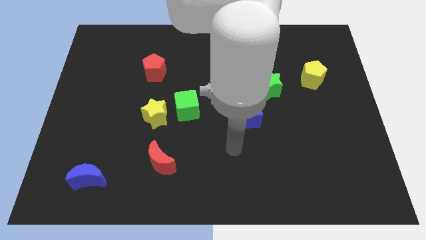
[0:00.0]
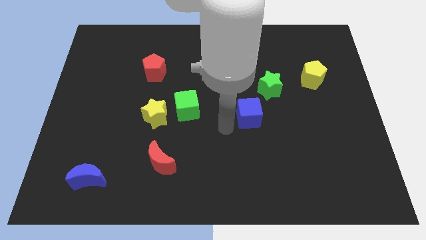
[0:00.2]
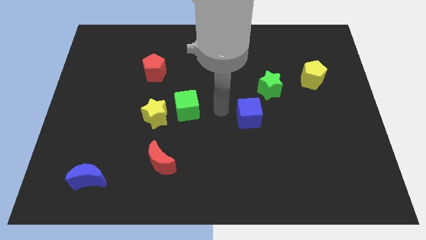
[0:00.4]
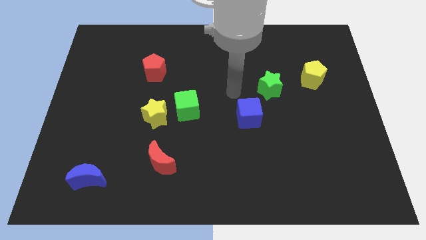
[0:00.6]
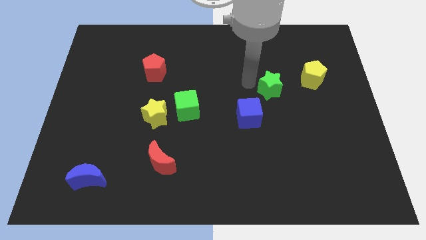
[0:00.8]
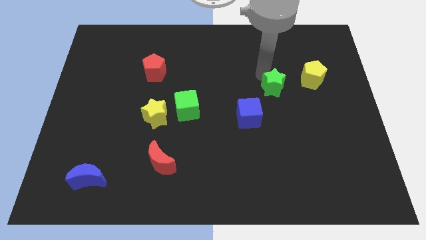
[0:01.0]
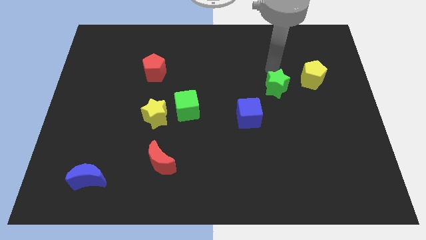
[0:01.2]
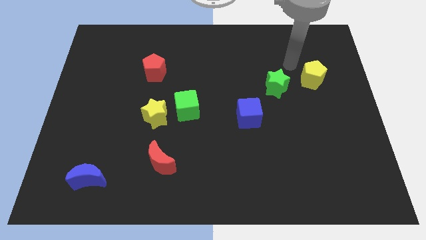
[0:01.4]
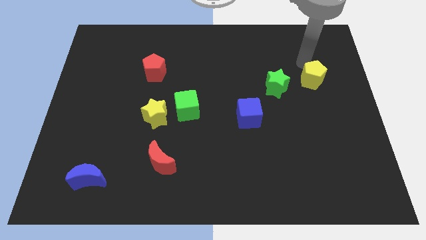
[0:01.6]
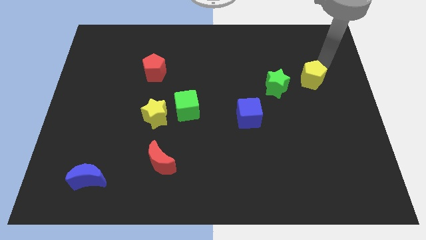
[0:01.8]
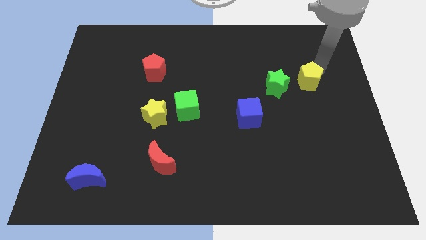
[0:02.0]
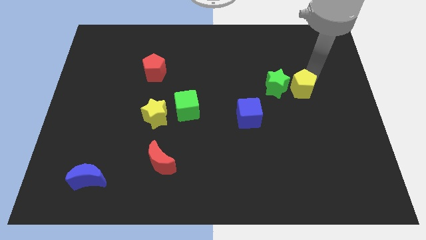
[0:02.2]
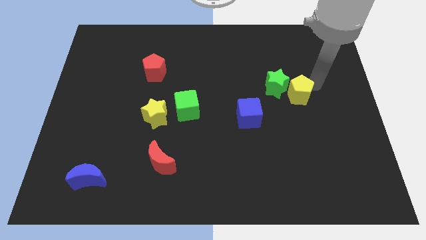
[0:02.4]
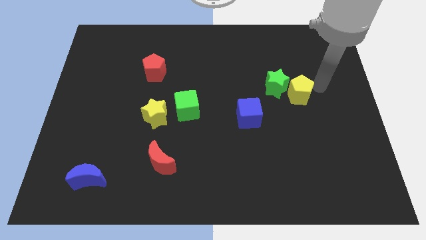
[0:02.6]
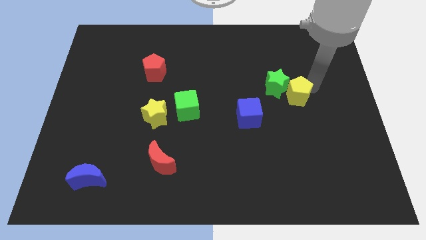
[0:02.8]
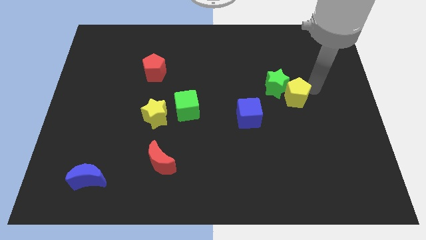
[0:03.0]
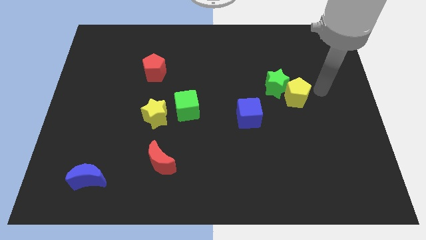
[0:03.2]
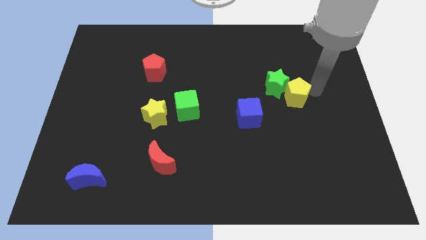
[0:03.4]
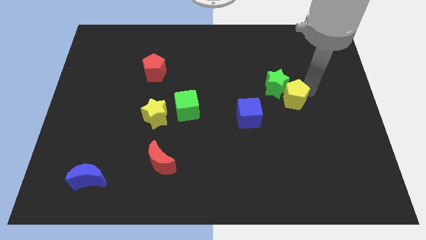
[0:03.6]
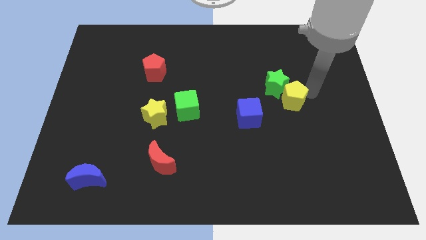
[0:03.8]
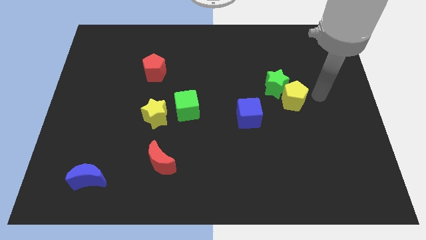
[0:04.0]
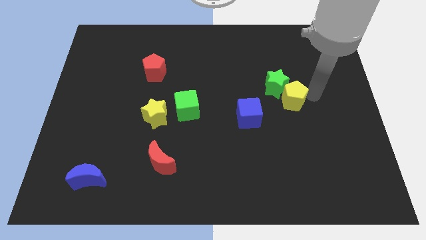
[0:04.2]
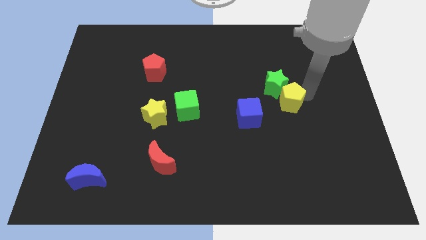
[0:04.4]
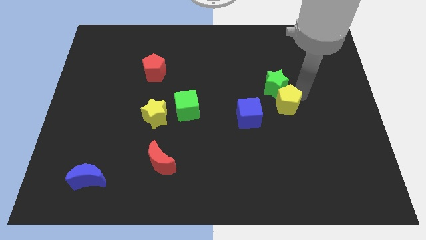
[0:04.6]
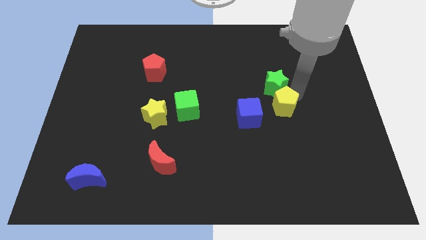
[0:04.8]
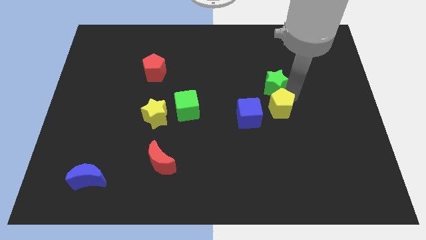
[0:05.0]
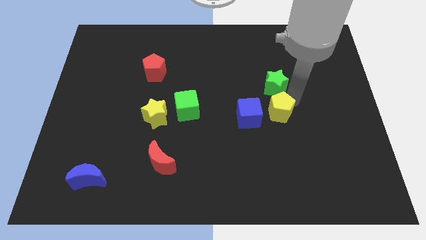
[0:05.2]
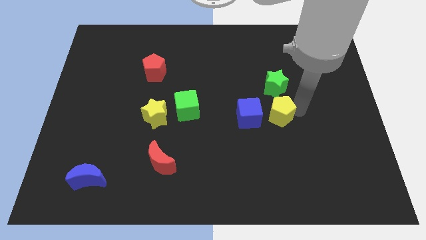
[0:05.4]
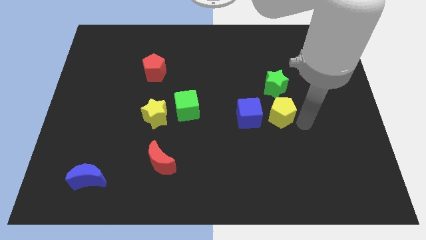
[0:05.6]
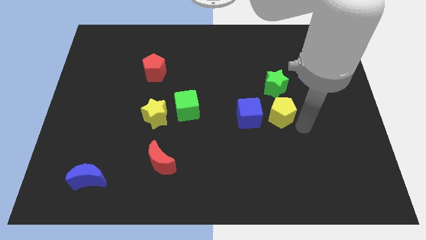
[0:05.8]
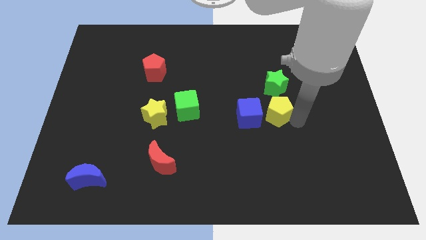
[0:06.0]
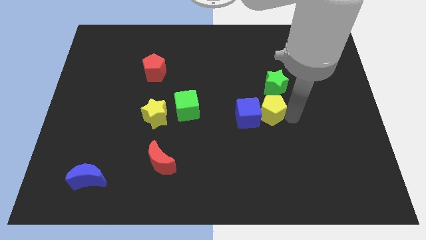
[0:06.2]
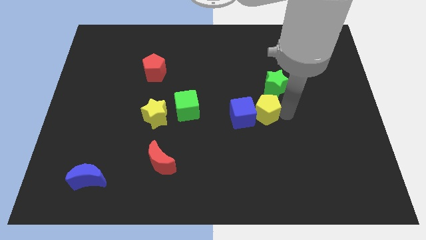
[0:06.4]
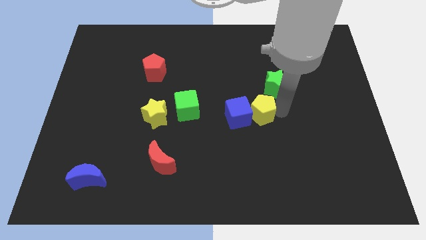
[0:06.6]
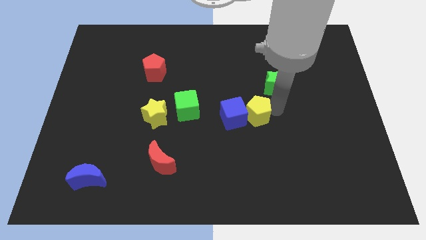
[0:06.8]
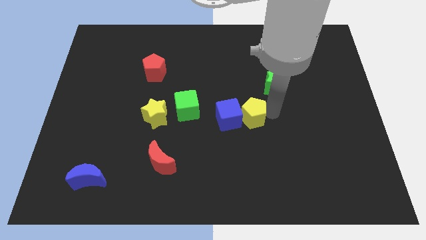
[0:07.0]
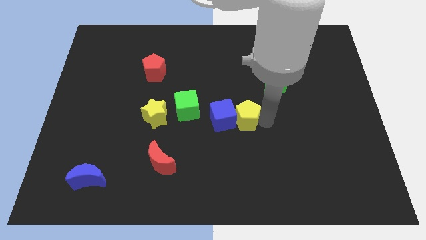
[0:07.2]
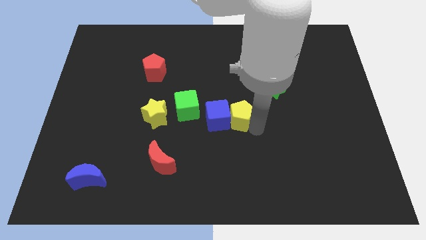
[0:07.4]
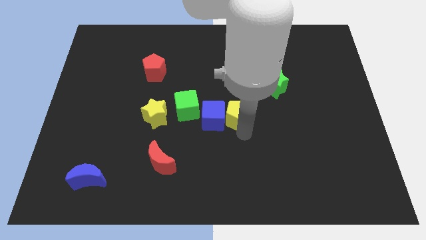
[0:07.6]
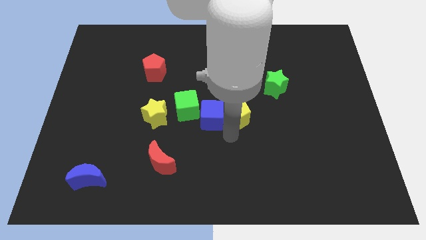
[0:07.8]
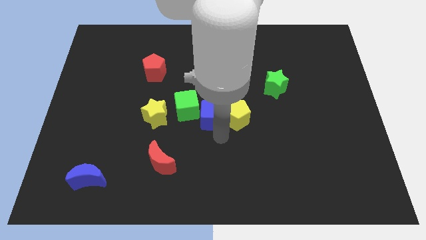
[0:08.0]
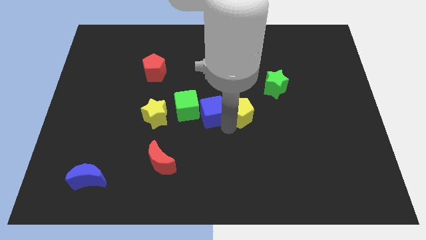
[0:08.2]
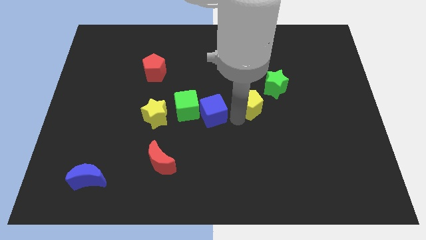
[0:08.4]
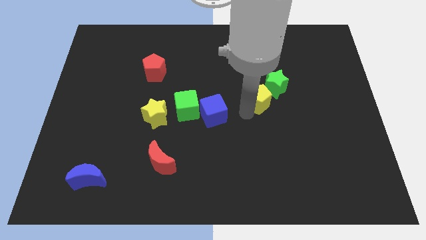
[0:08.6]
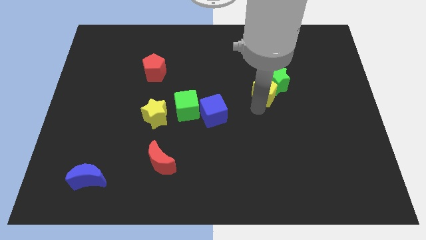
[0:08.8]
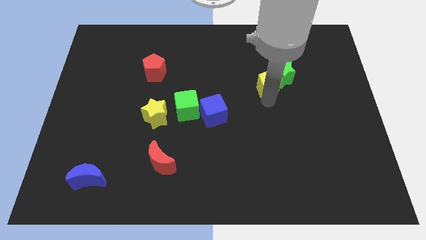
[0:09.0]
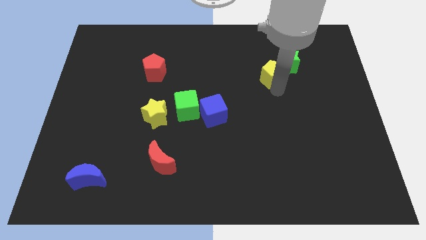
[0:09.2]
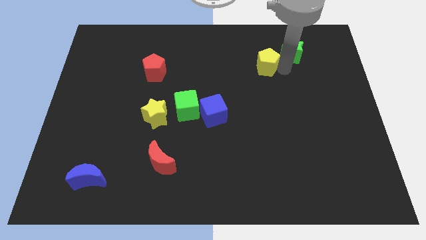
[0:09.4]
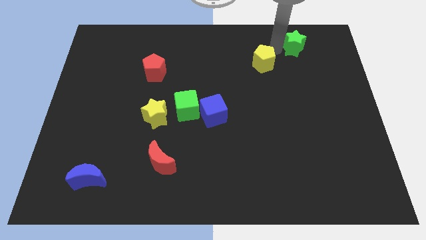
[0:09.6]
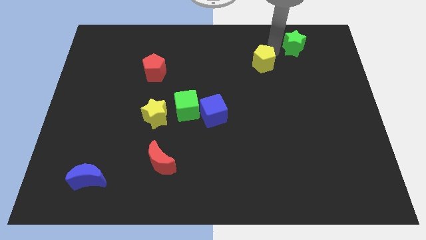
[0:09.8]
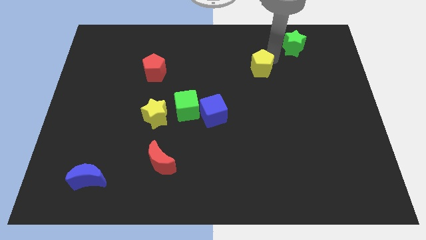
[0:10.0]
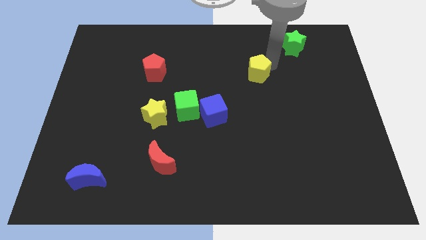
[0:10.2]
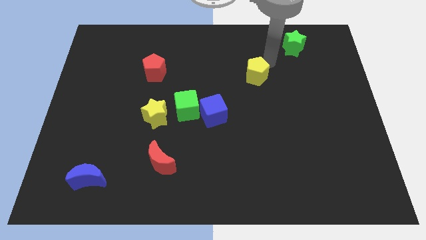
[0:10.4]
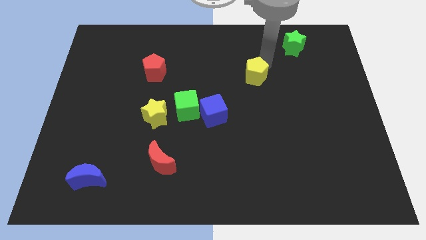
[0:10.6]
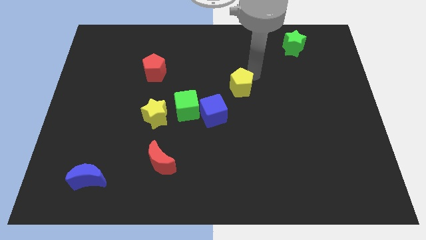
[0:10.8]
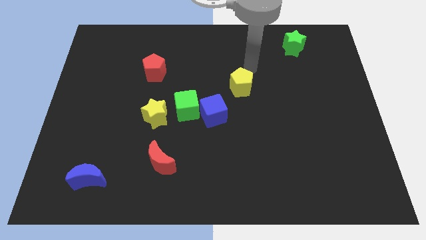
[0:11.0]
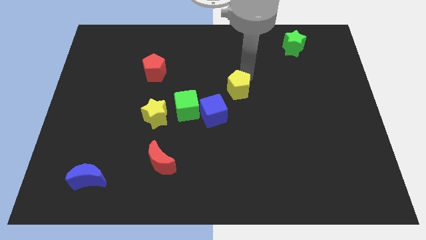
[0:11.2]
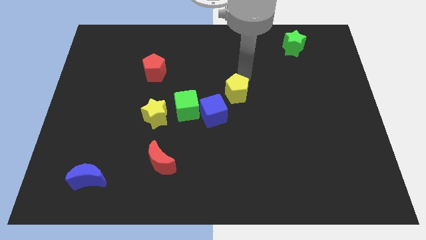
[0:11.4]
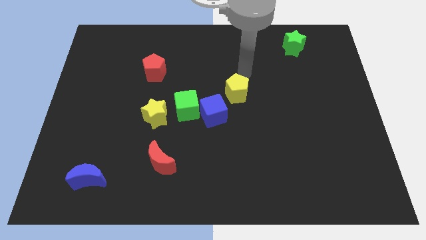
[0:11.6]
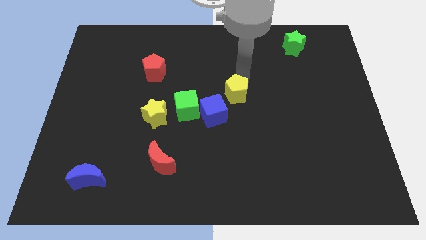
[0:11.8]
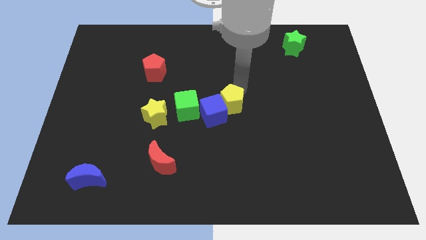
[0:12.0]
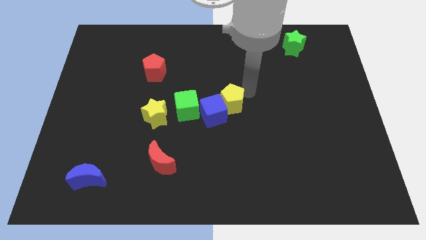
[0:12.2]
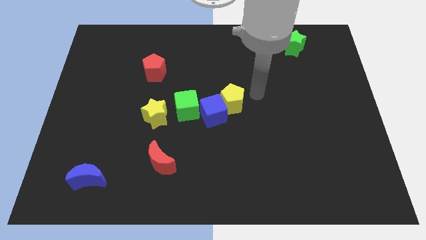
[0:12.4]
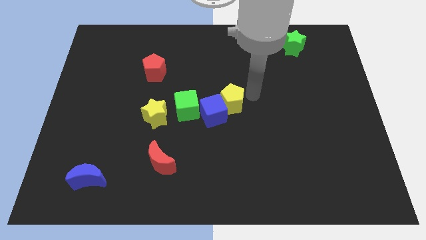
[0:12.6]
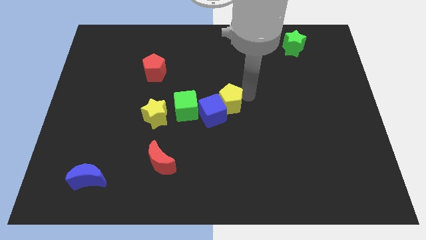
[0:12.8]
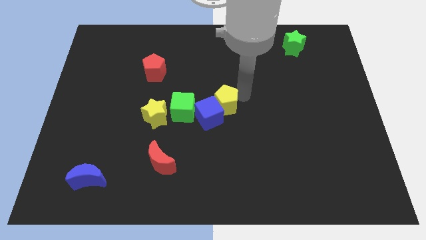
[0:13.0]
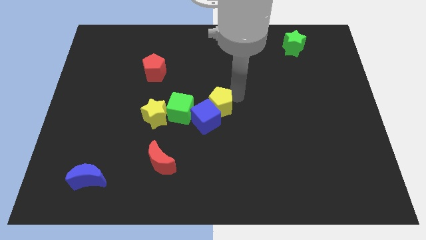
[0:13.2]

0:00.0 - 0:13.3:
slide the yellow pentagon just right of the yellow star
